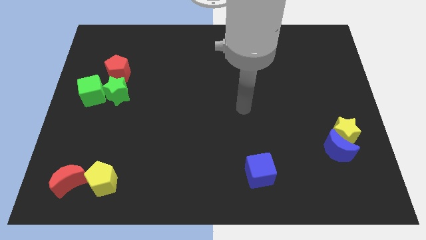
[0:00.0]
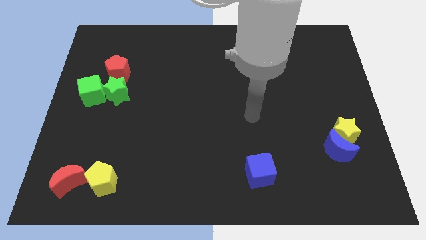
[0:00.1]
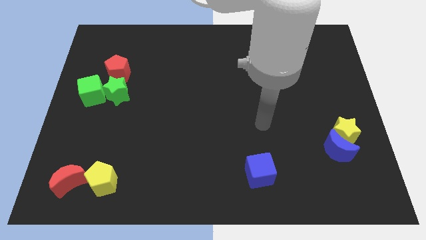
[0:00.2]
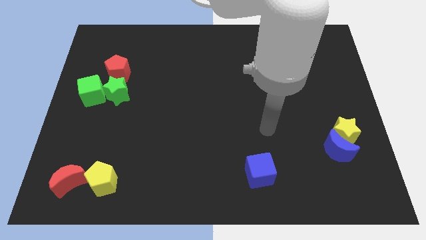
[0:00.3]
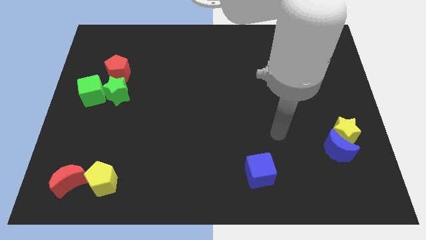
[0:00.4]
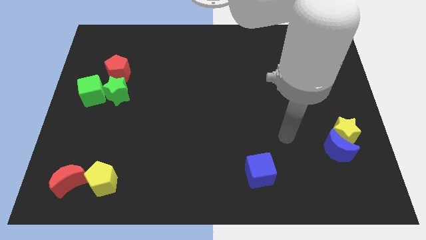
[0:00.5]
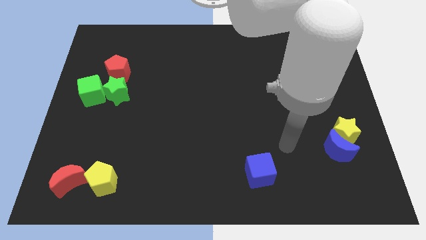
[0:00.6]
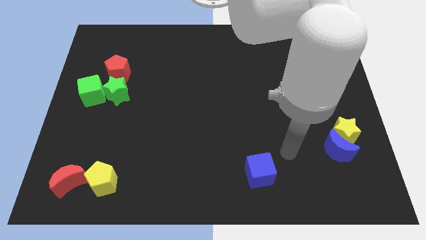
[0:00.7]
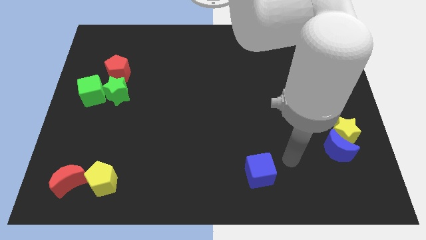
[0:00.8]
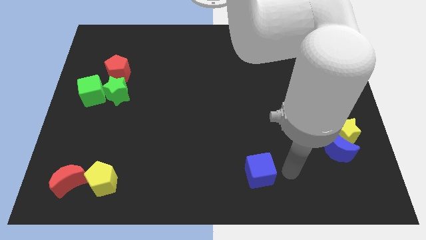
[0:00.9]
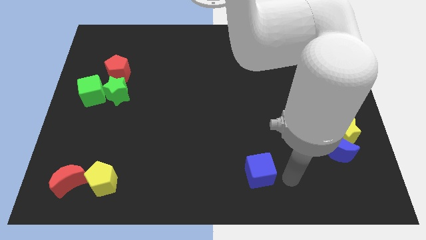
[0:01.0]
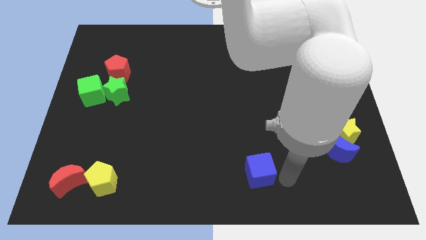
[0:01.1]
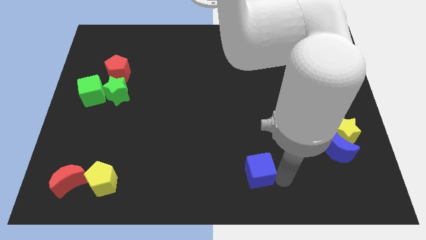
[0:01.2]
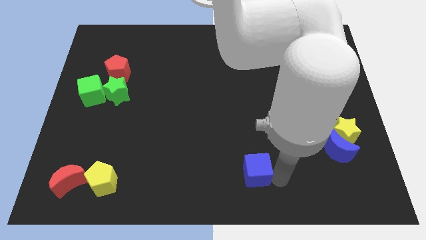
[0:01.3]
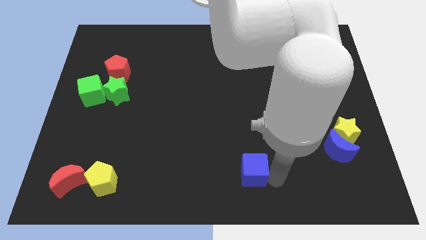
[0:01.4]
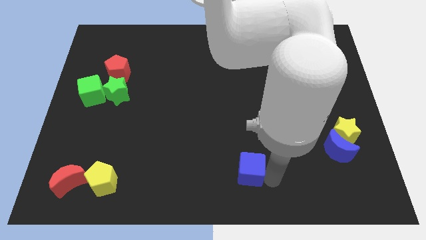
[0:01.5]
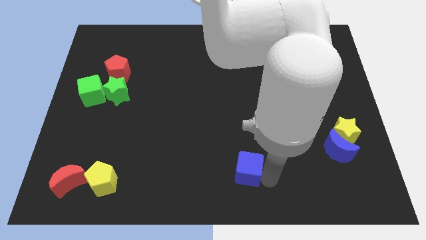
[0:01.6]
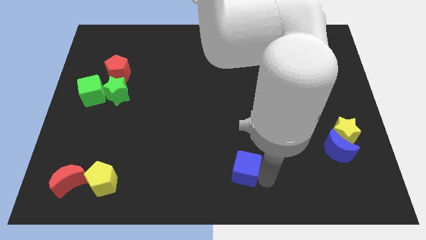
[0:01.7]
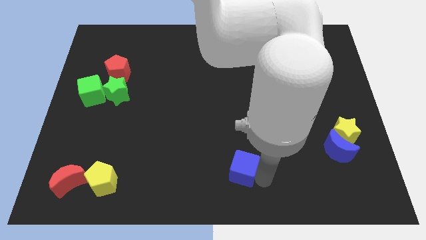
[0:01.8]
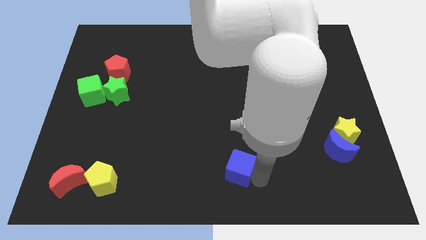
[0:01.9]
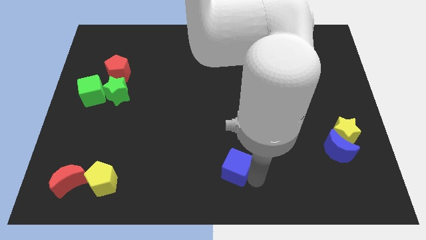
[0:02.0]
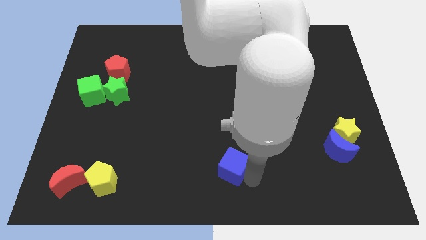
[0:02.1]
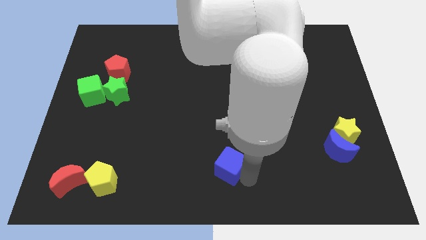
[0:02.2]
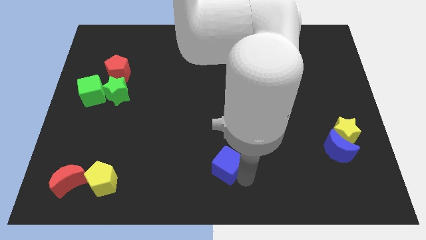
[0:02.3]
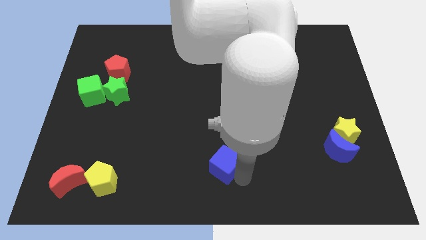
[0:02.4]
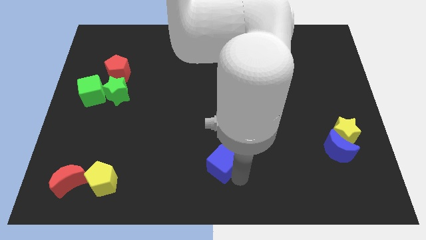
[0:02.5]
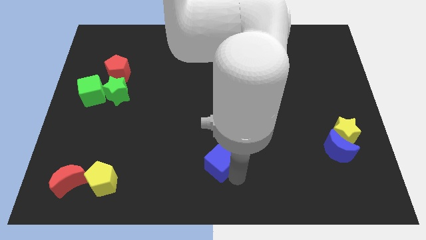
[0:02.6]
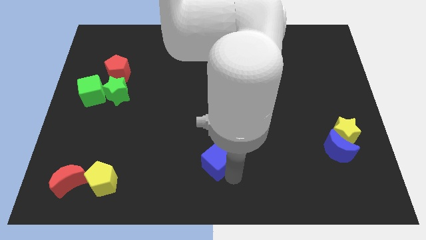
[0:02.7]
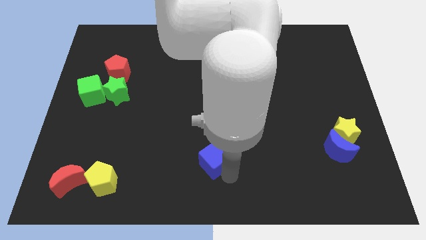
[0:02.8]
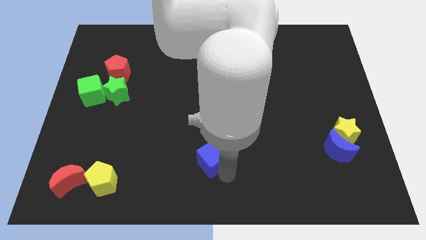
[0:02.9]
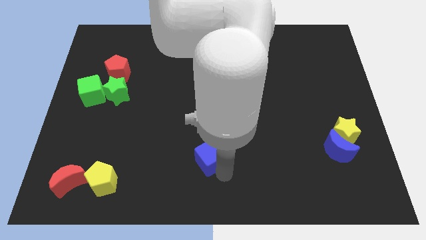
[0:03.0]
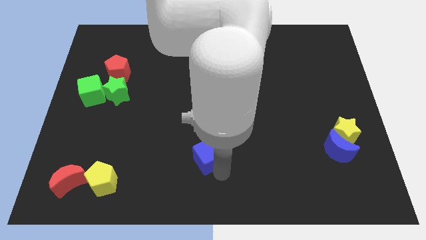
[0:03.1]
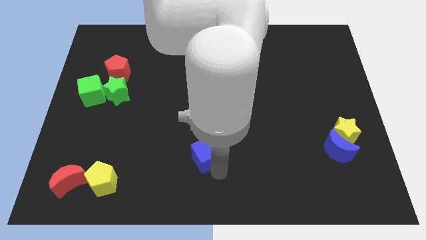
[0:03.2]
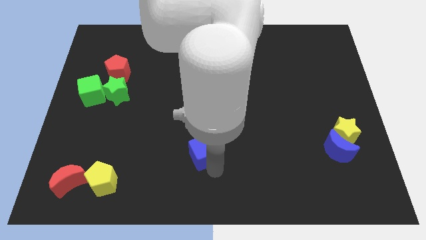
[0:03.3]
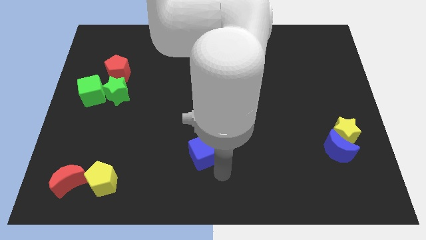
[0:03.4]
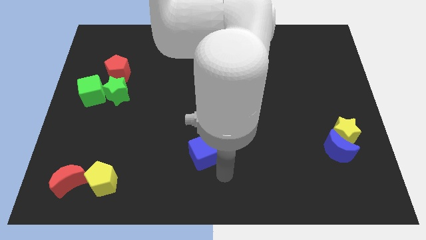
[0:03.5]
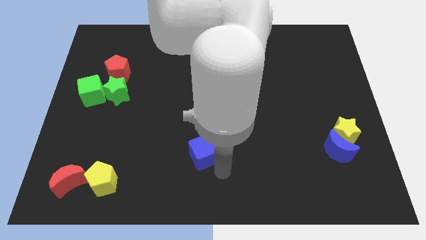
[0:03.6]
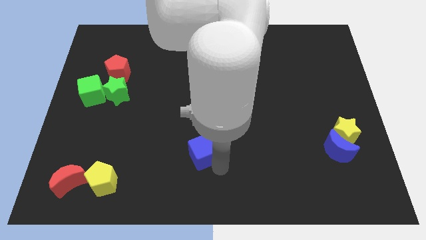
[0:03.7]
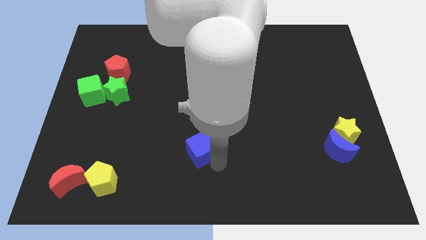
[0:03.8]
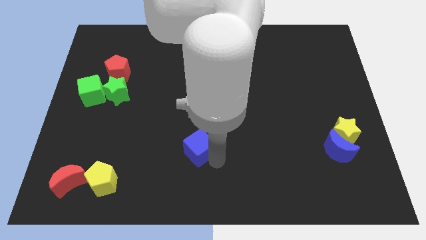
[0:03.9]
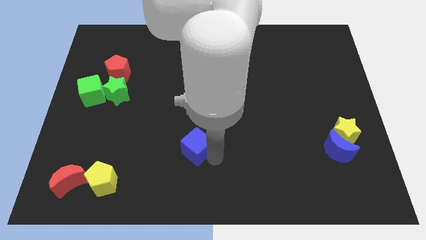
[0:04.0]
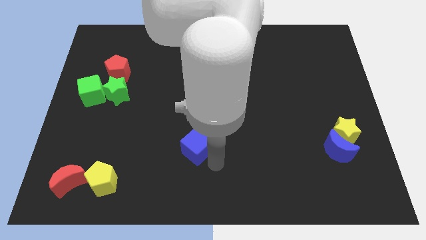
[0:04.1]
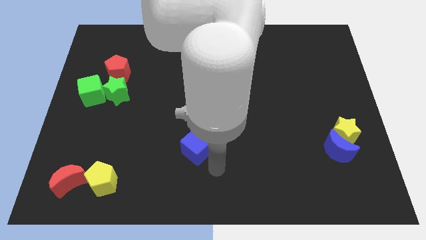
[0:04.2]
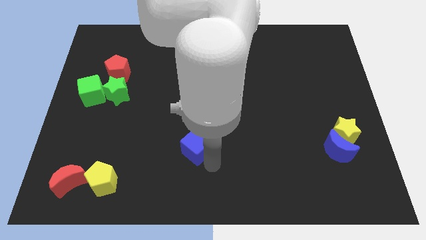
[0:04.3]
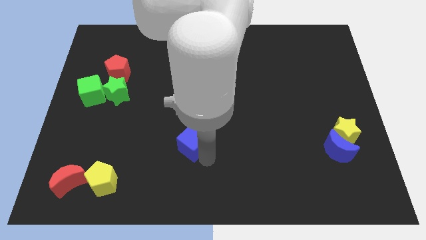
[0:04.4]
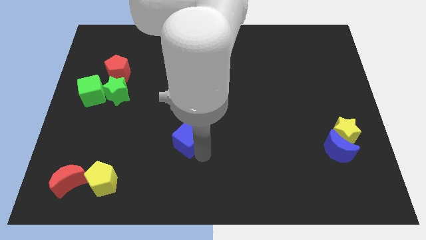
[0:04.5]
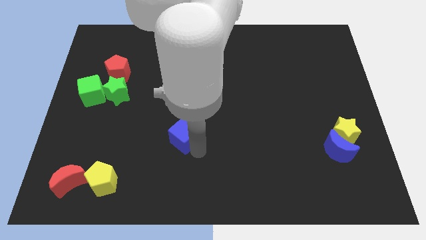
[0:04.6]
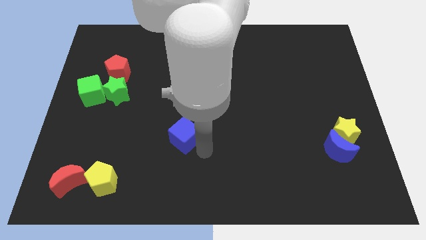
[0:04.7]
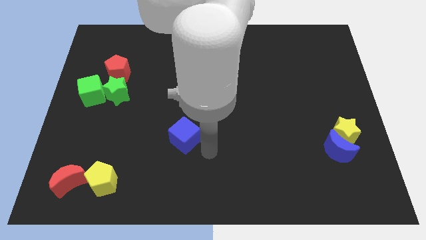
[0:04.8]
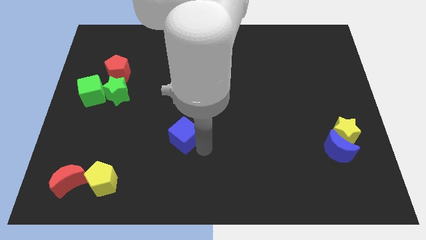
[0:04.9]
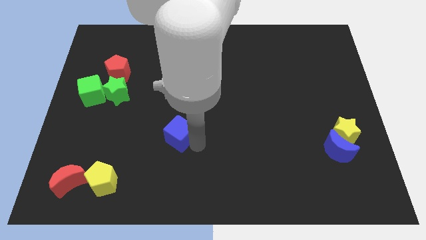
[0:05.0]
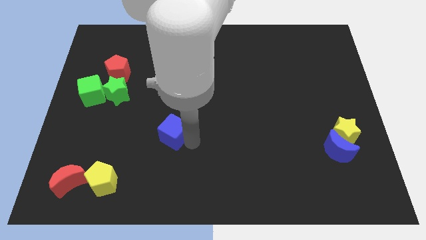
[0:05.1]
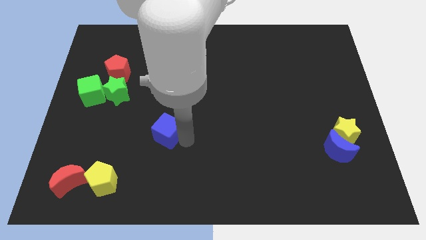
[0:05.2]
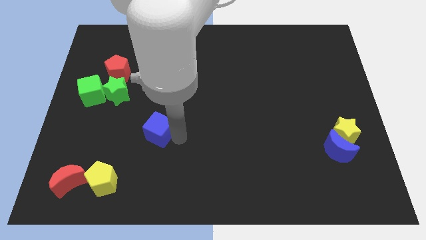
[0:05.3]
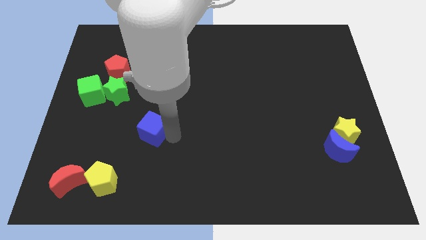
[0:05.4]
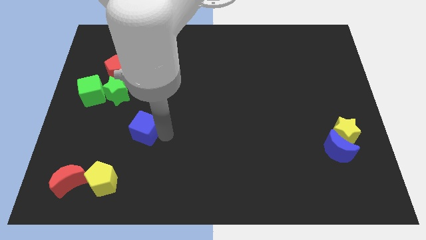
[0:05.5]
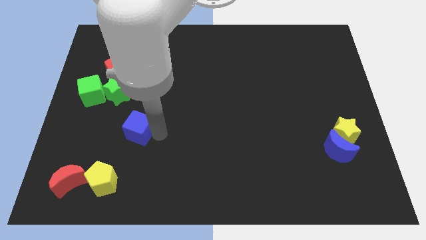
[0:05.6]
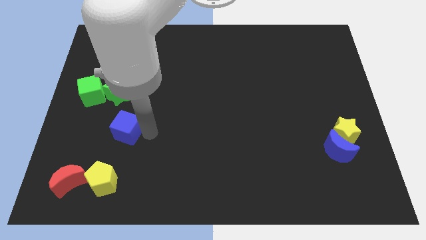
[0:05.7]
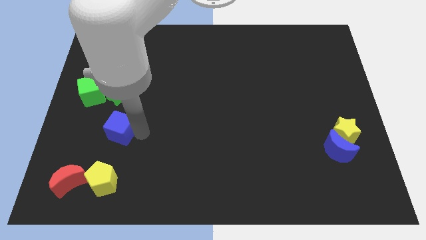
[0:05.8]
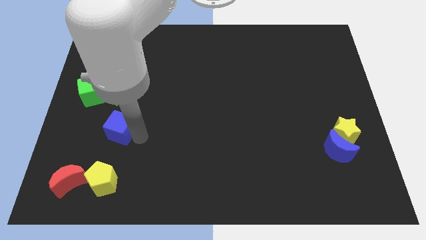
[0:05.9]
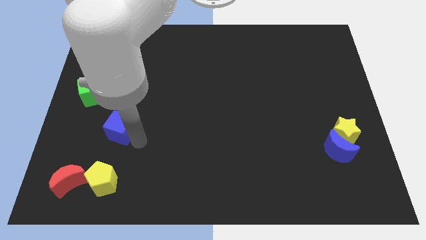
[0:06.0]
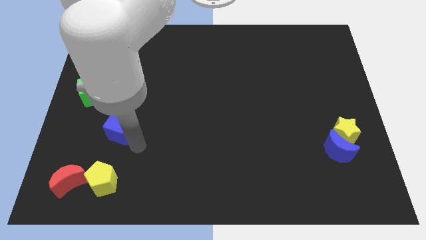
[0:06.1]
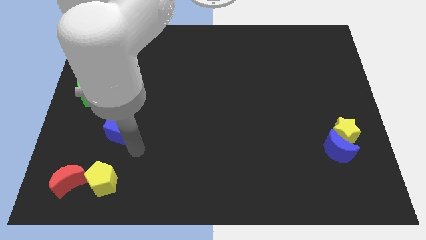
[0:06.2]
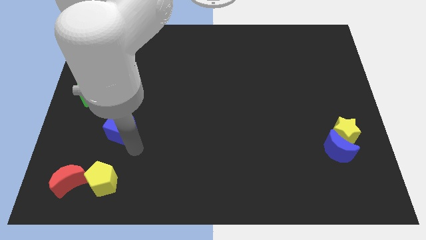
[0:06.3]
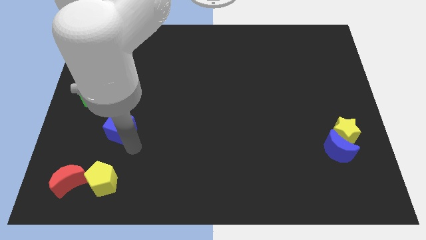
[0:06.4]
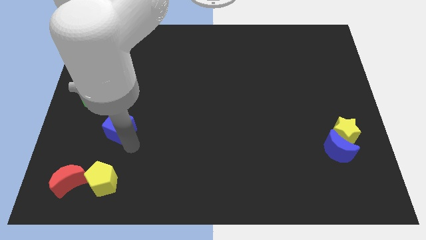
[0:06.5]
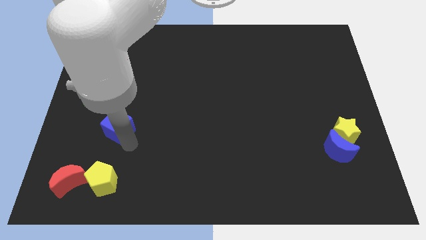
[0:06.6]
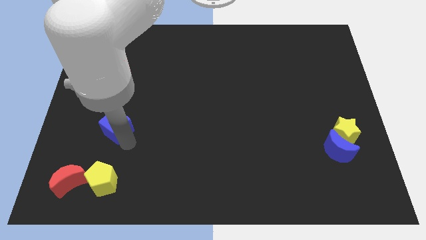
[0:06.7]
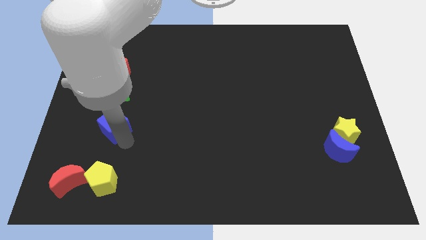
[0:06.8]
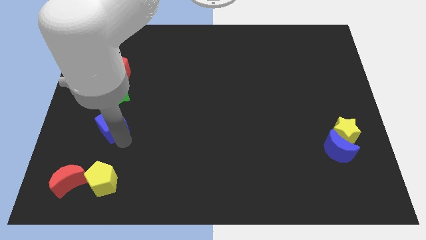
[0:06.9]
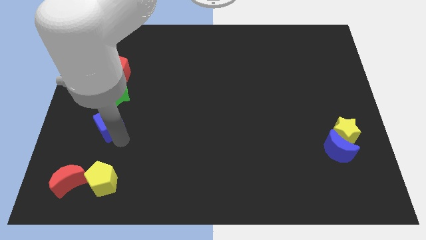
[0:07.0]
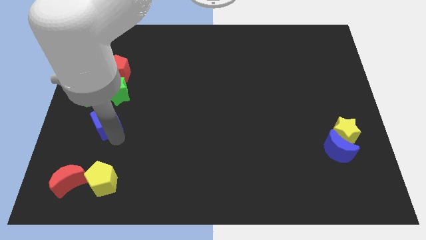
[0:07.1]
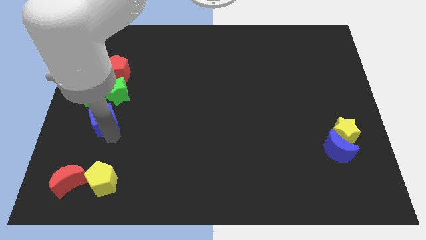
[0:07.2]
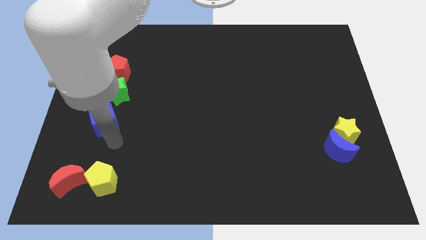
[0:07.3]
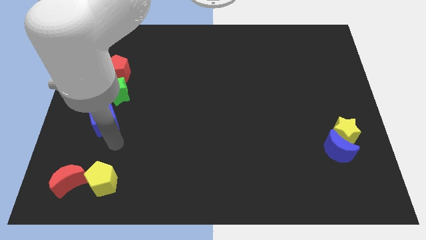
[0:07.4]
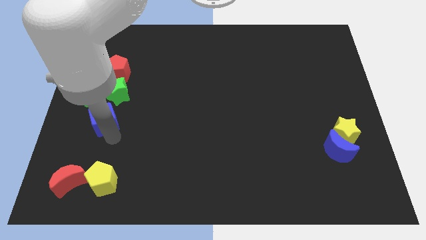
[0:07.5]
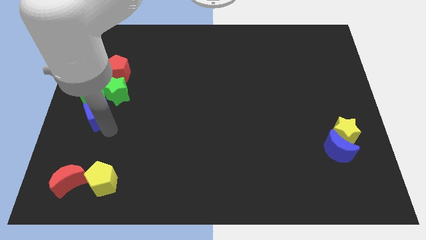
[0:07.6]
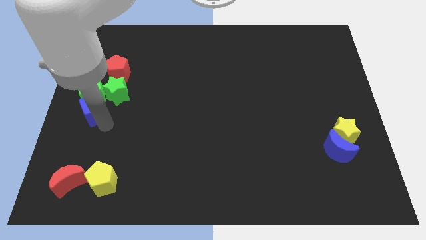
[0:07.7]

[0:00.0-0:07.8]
push the blue cube close to the green cube
